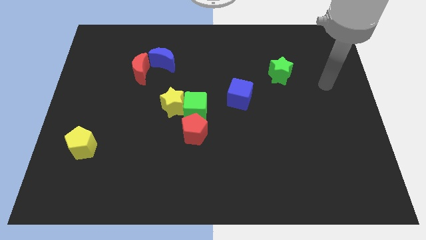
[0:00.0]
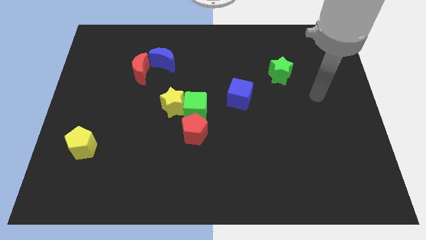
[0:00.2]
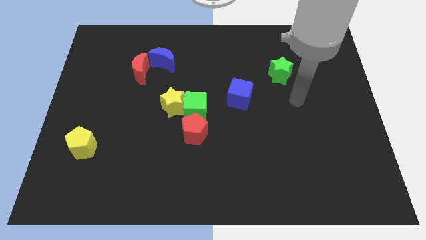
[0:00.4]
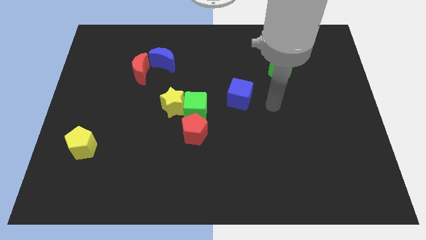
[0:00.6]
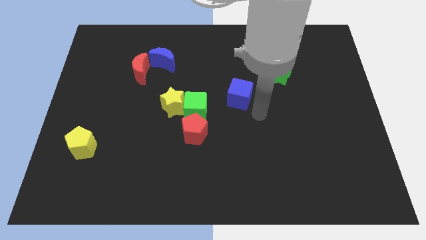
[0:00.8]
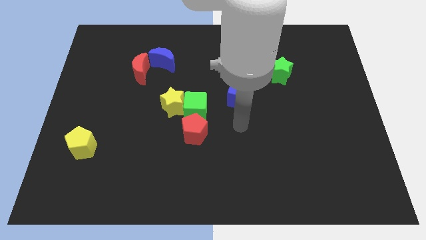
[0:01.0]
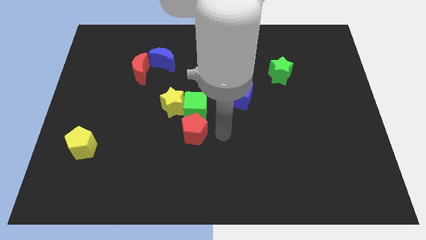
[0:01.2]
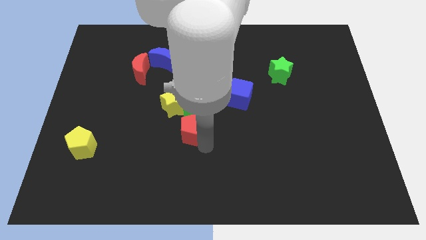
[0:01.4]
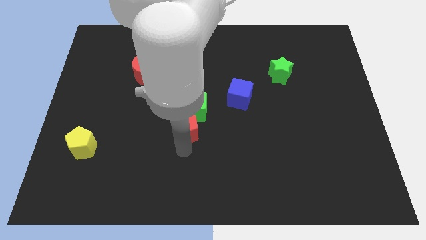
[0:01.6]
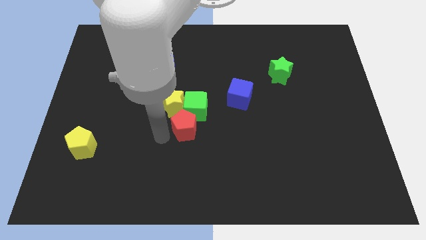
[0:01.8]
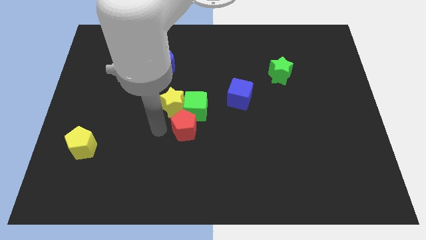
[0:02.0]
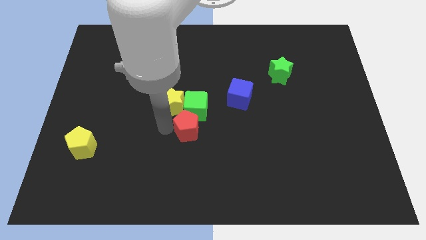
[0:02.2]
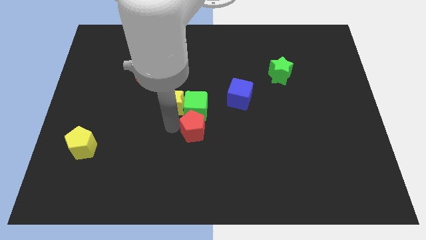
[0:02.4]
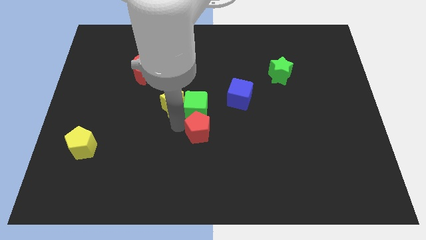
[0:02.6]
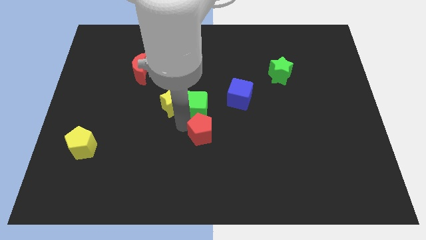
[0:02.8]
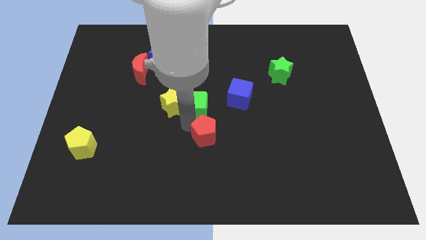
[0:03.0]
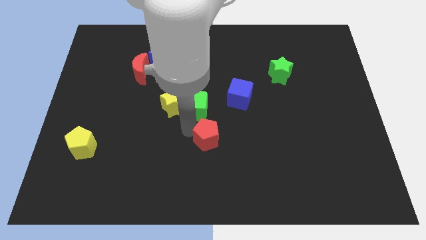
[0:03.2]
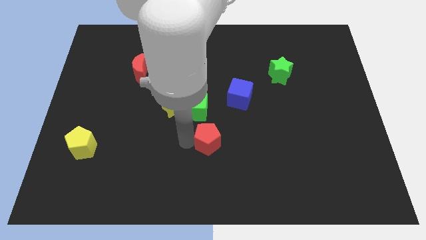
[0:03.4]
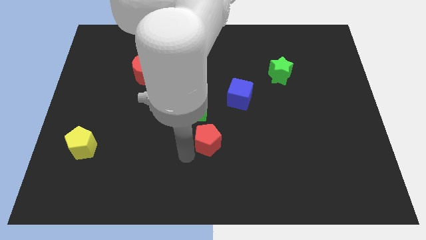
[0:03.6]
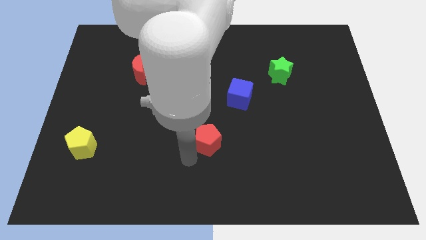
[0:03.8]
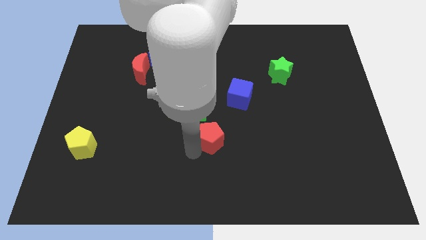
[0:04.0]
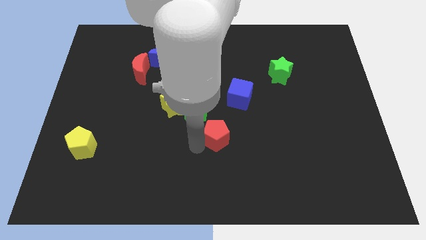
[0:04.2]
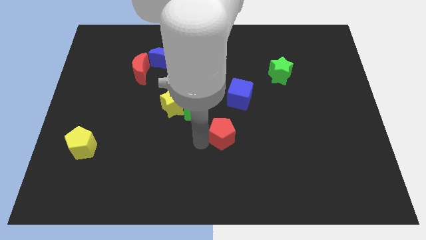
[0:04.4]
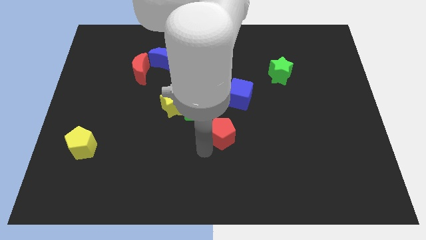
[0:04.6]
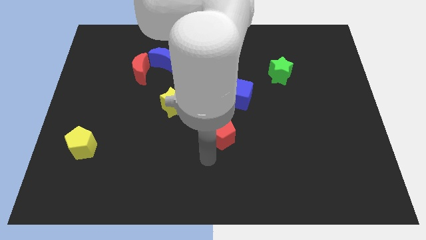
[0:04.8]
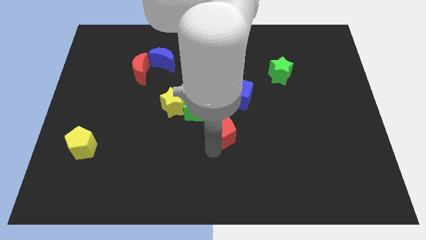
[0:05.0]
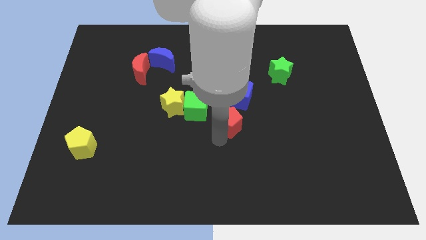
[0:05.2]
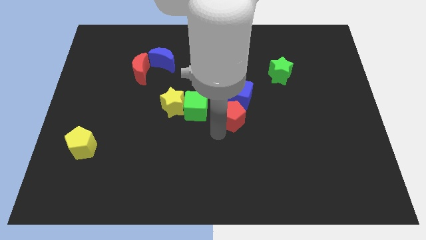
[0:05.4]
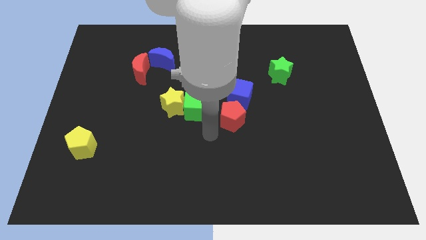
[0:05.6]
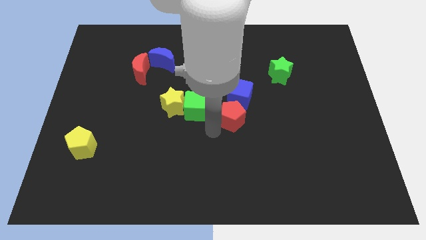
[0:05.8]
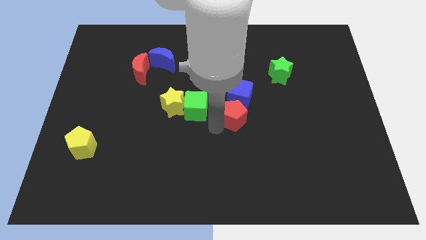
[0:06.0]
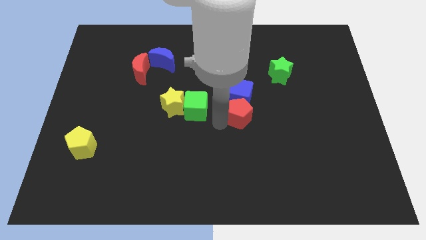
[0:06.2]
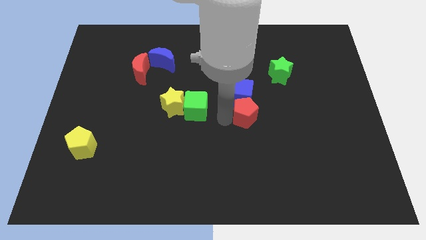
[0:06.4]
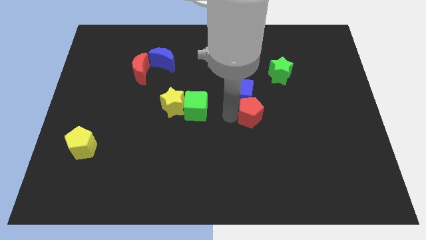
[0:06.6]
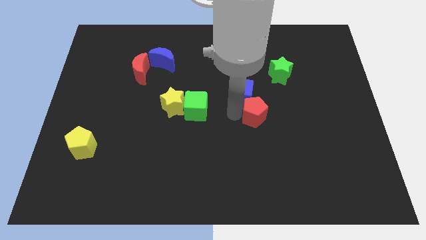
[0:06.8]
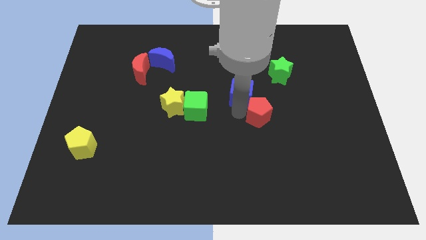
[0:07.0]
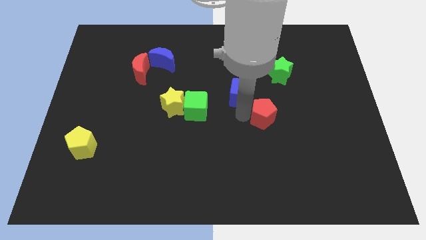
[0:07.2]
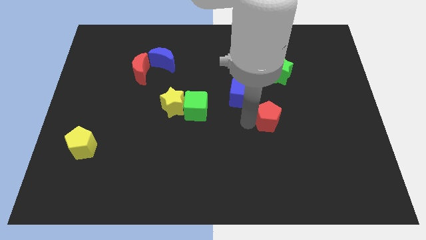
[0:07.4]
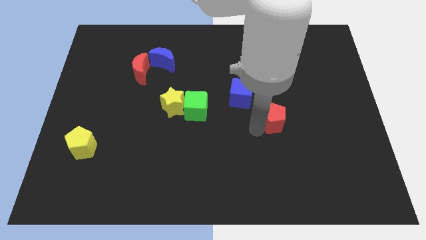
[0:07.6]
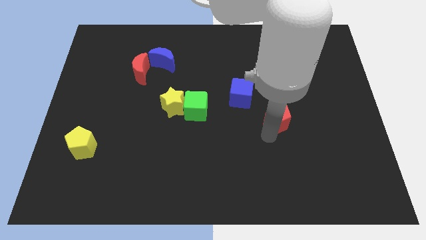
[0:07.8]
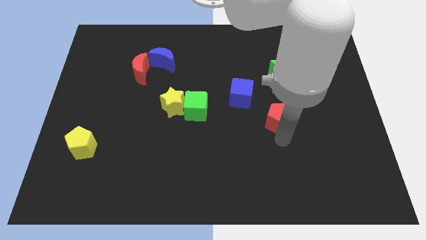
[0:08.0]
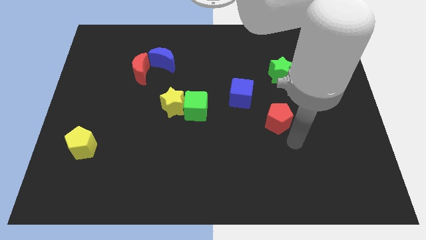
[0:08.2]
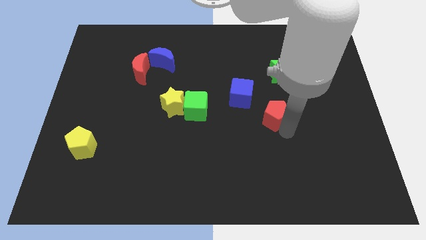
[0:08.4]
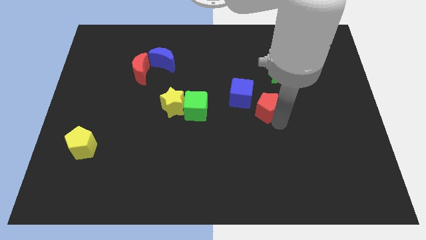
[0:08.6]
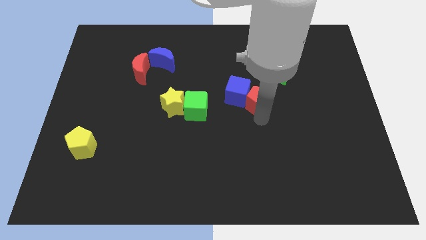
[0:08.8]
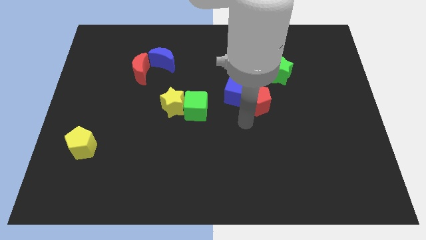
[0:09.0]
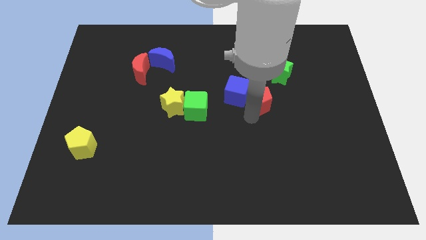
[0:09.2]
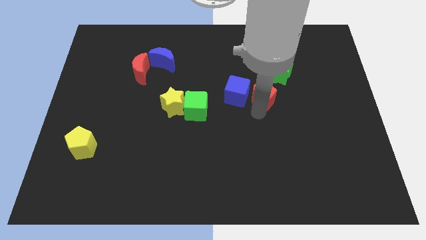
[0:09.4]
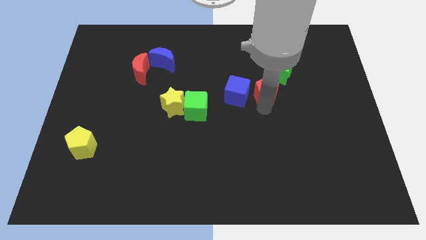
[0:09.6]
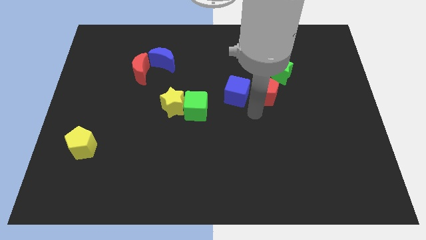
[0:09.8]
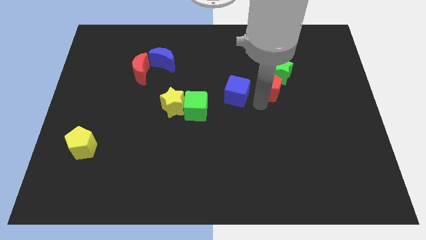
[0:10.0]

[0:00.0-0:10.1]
put the red pentagon next to the green star

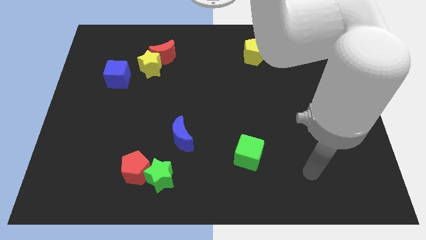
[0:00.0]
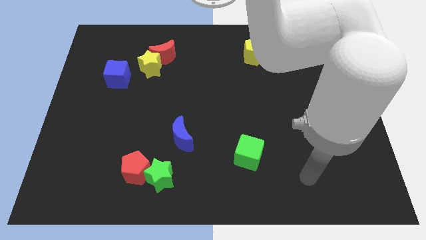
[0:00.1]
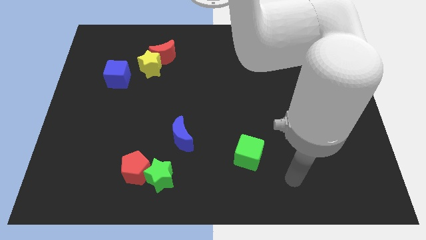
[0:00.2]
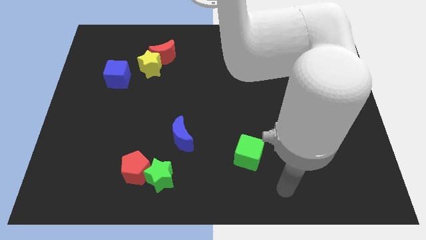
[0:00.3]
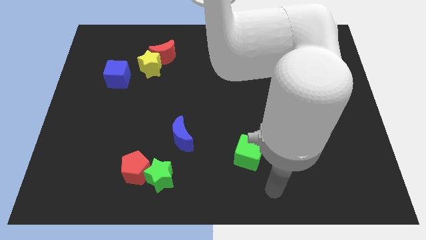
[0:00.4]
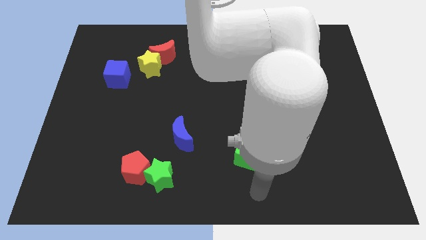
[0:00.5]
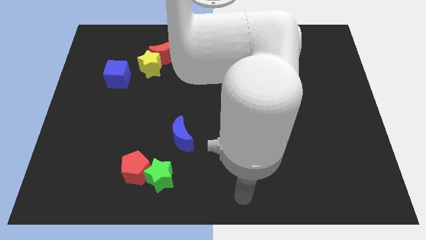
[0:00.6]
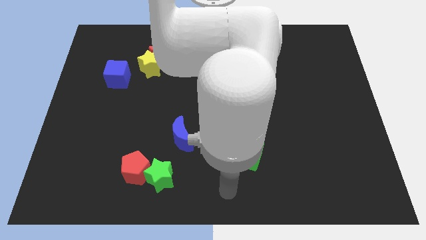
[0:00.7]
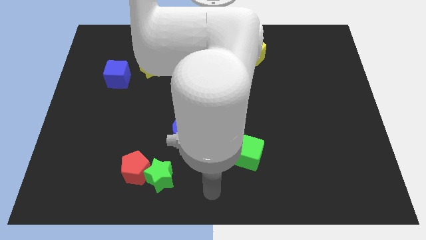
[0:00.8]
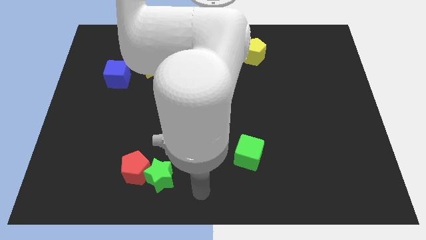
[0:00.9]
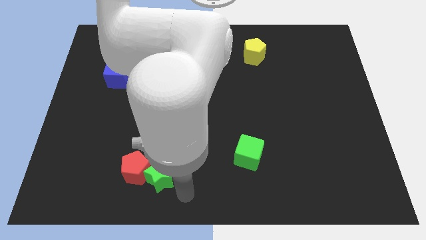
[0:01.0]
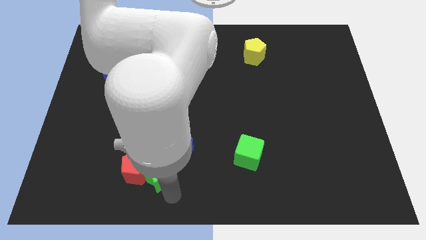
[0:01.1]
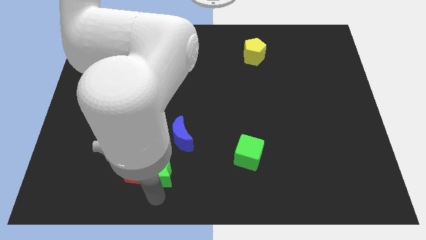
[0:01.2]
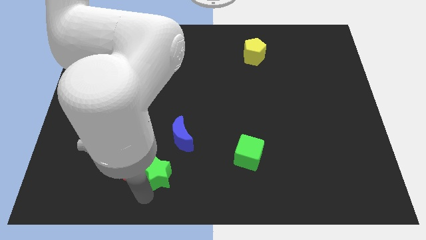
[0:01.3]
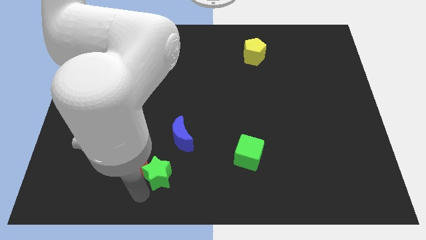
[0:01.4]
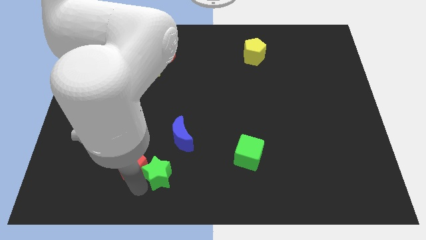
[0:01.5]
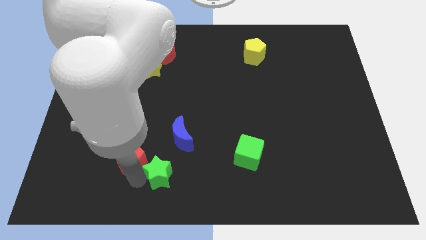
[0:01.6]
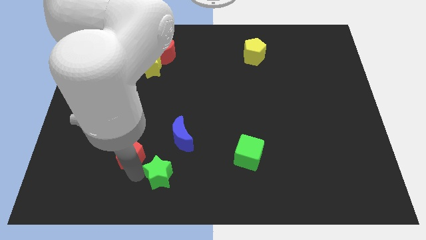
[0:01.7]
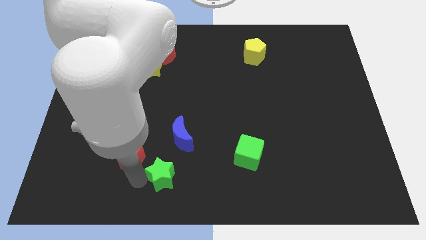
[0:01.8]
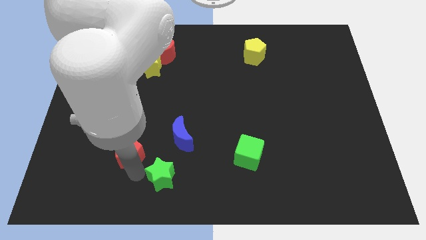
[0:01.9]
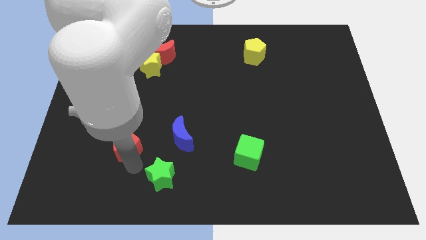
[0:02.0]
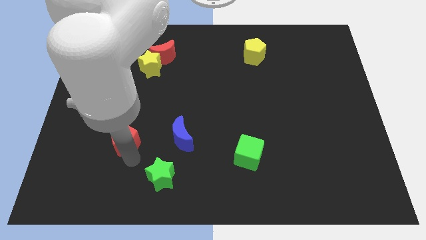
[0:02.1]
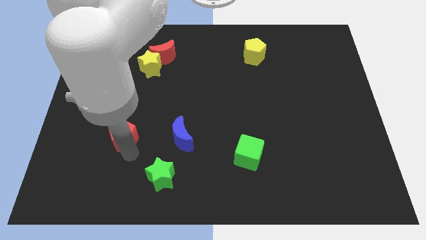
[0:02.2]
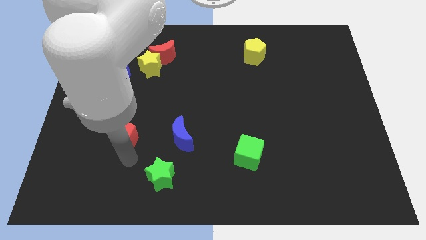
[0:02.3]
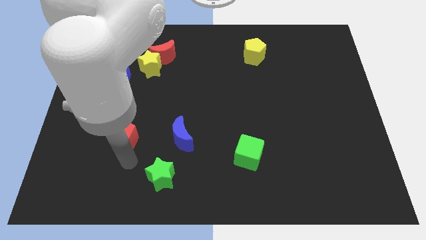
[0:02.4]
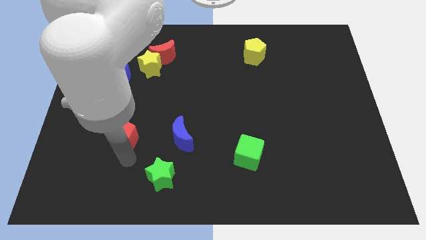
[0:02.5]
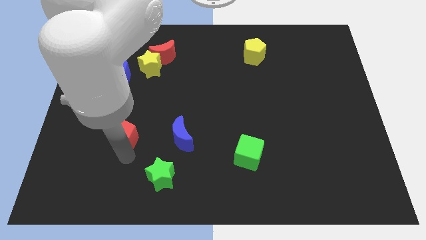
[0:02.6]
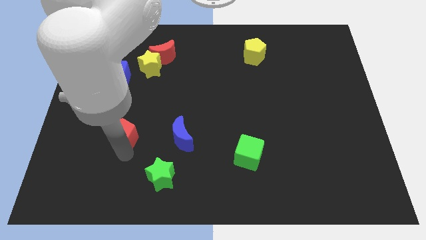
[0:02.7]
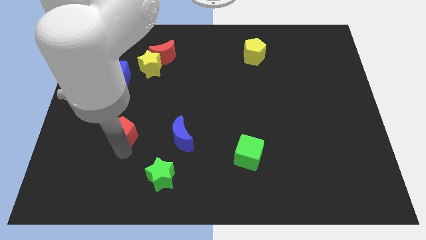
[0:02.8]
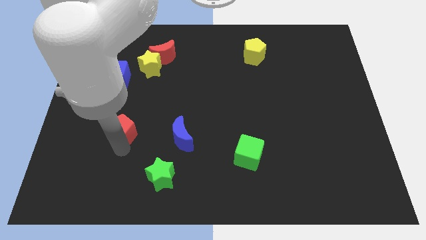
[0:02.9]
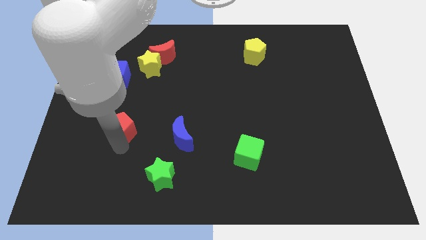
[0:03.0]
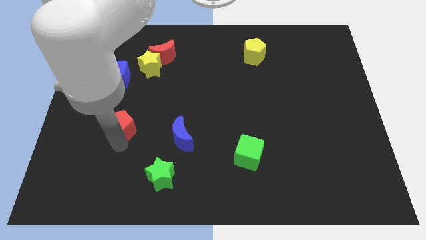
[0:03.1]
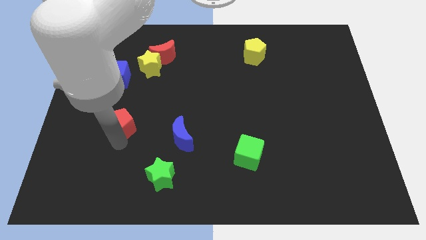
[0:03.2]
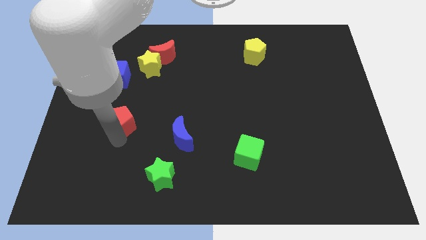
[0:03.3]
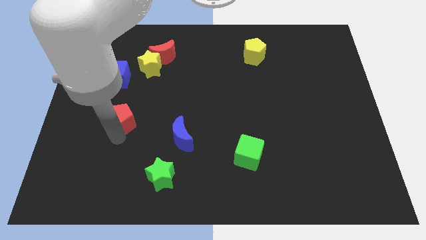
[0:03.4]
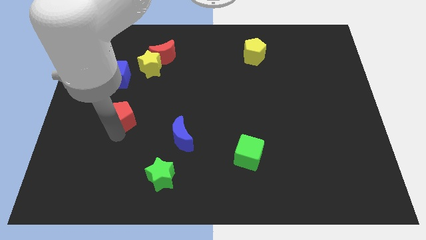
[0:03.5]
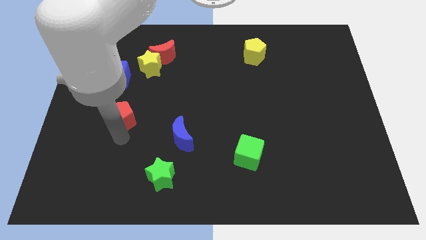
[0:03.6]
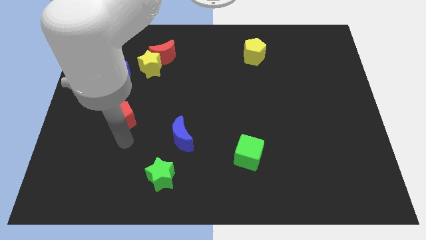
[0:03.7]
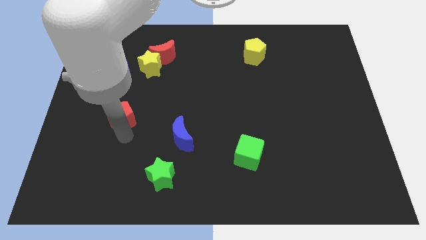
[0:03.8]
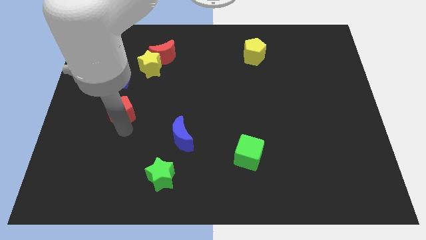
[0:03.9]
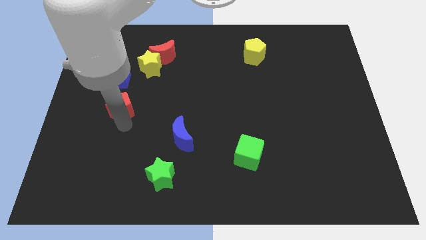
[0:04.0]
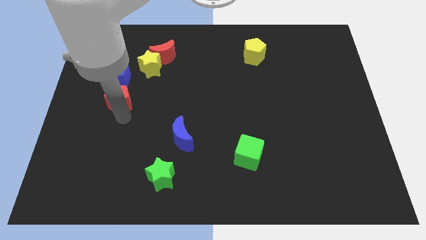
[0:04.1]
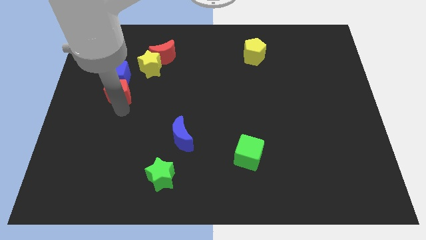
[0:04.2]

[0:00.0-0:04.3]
push the red pentagon to the blue cube
